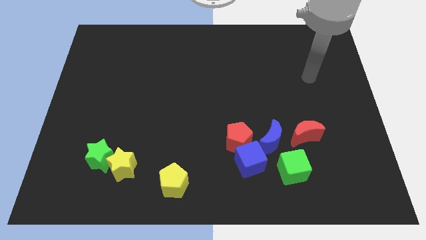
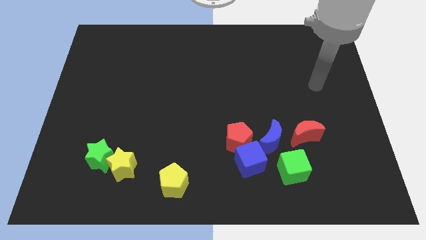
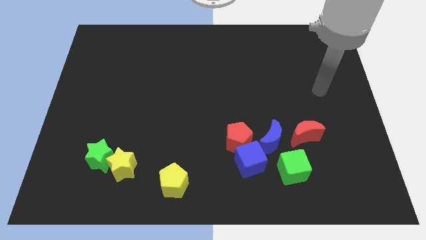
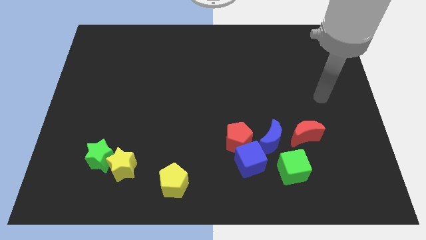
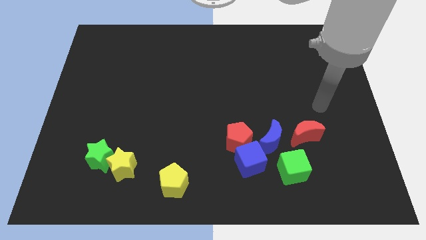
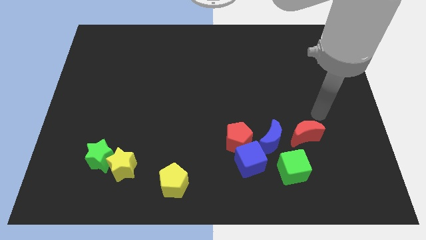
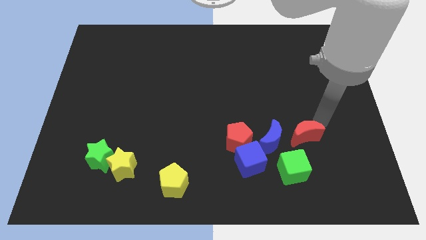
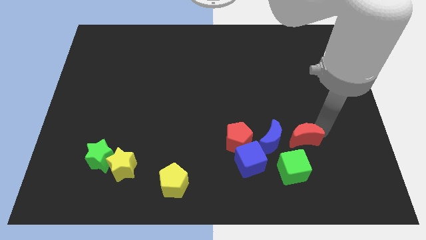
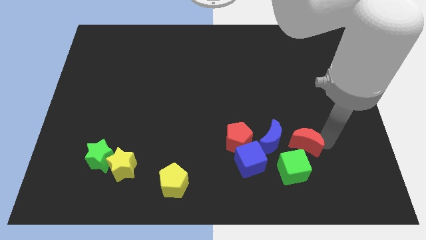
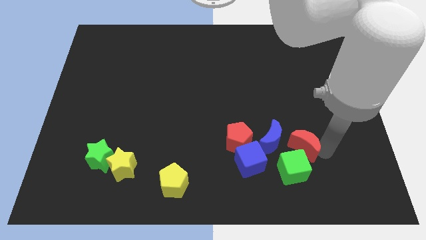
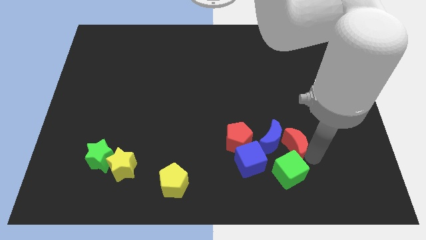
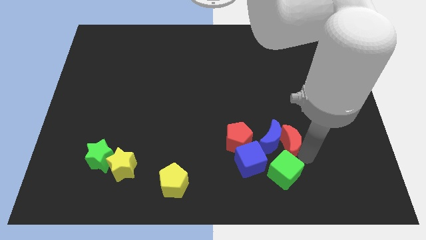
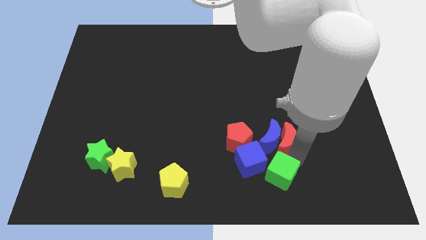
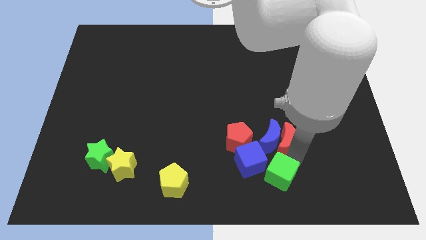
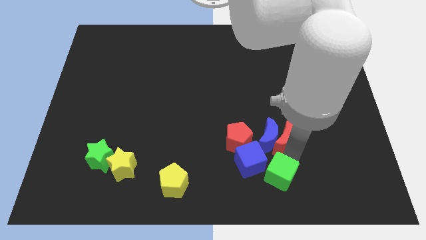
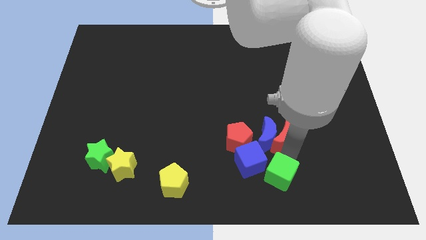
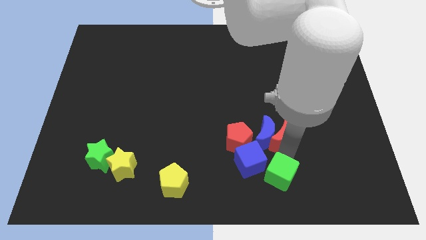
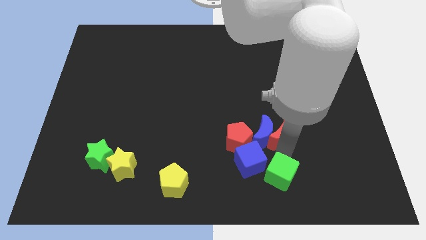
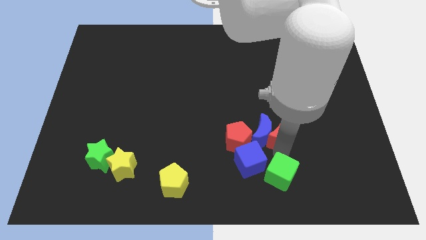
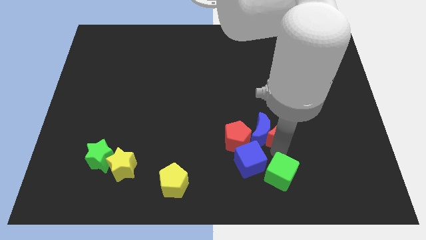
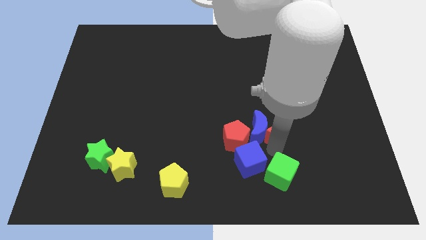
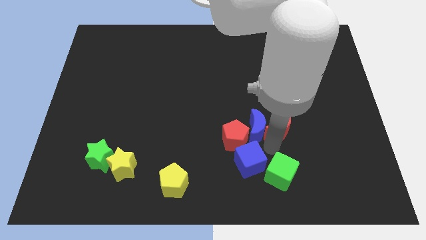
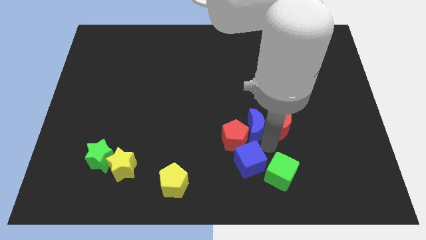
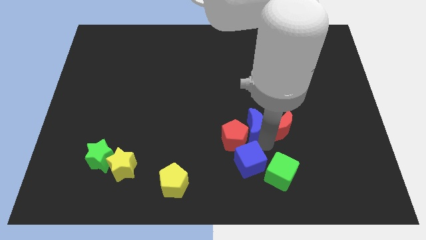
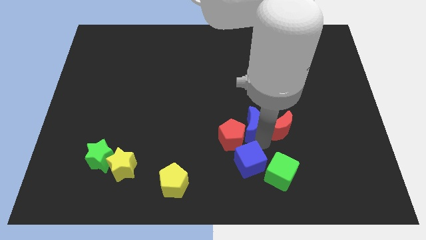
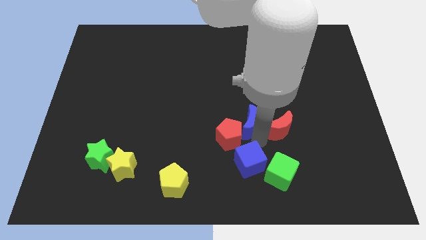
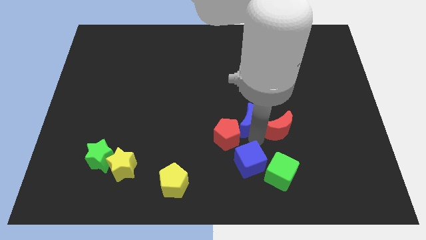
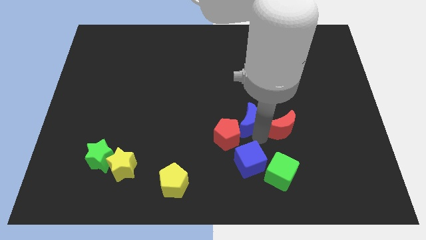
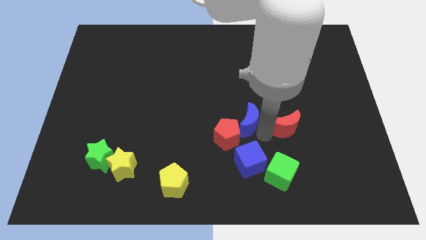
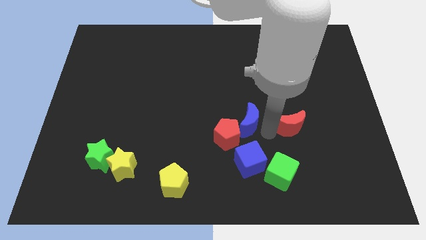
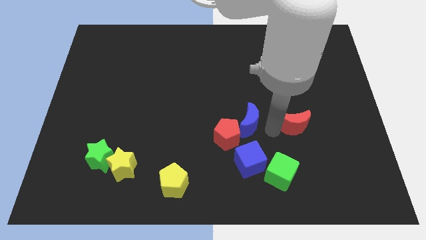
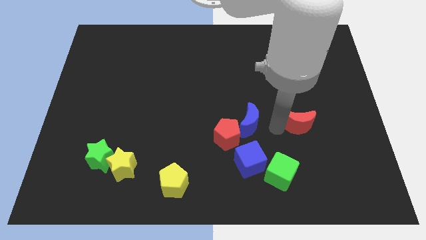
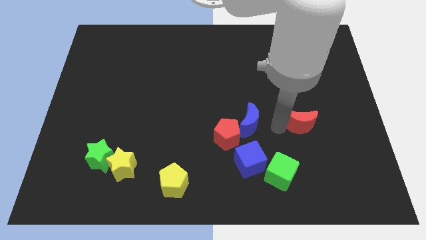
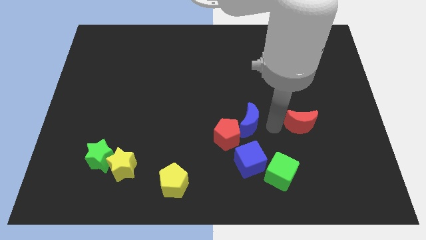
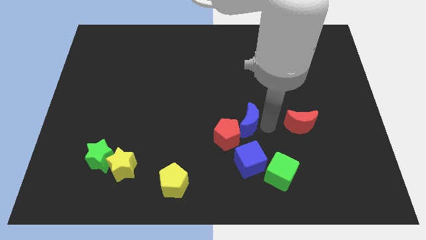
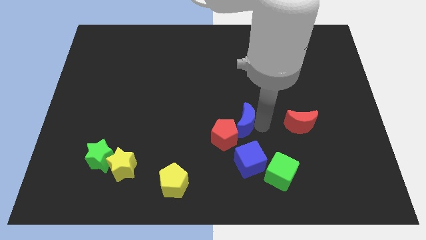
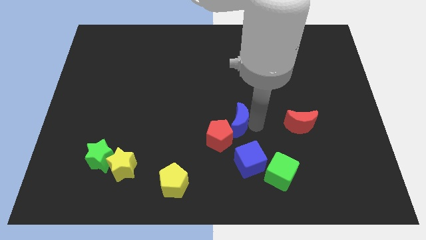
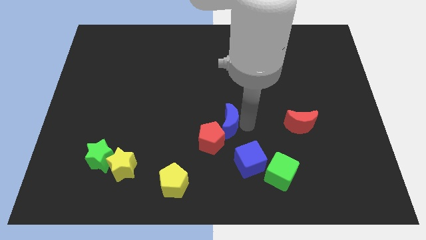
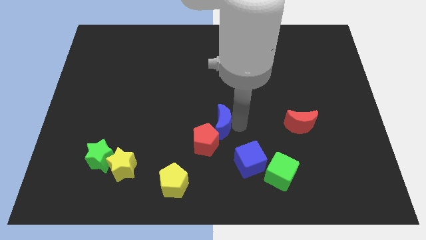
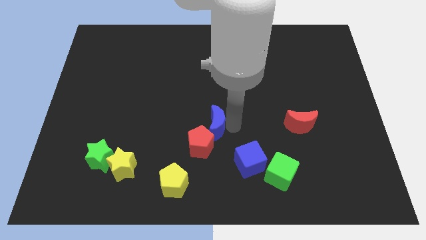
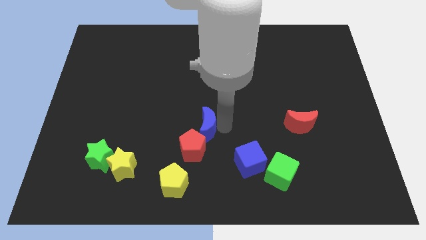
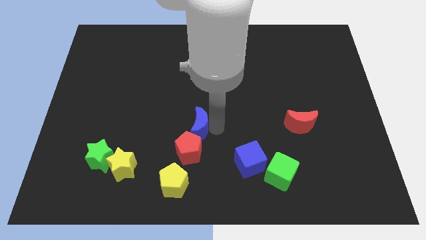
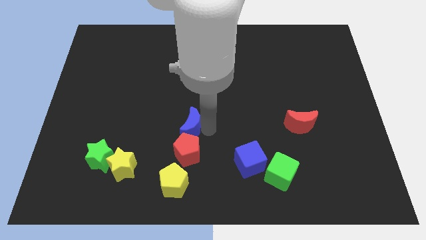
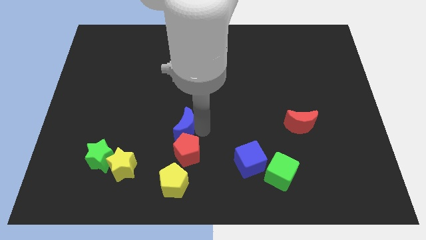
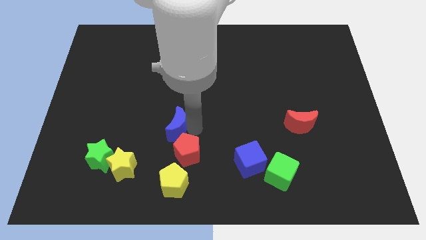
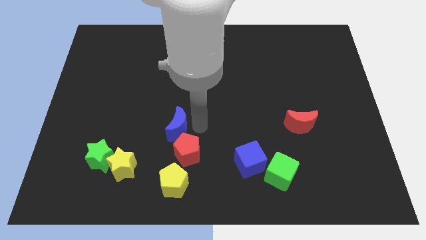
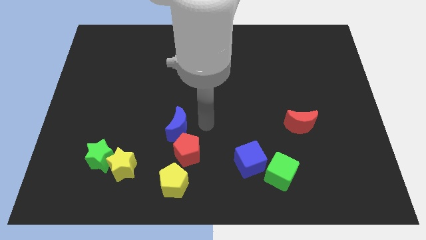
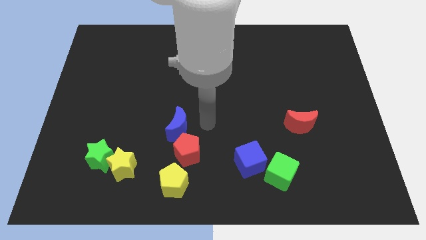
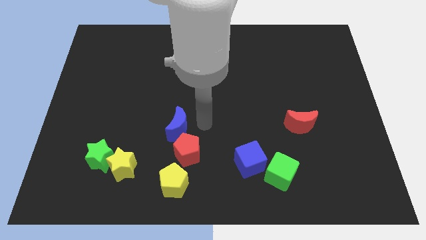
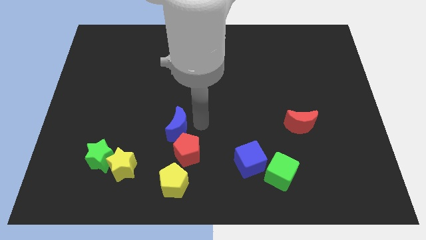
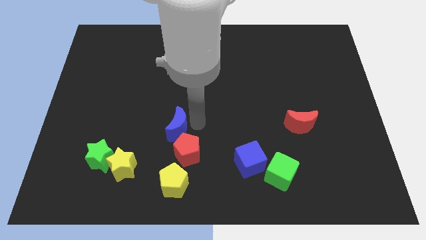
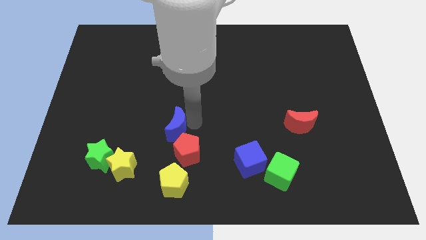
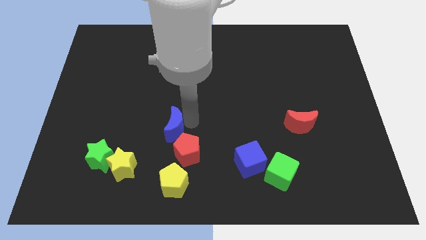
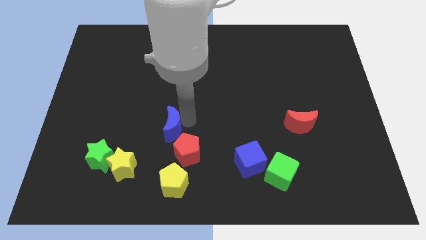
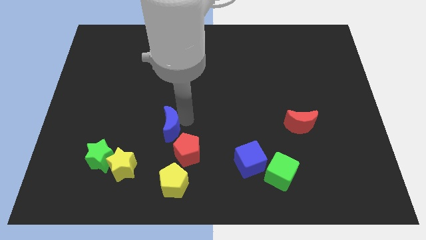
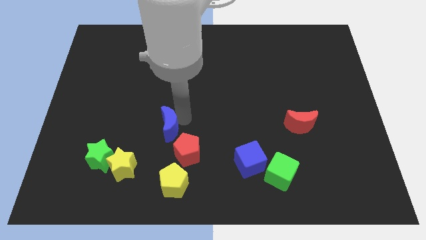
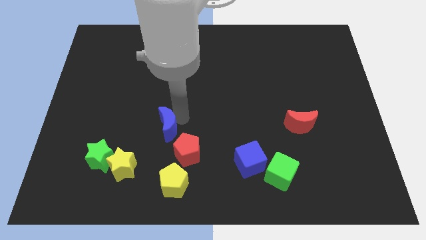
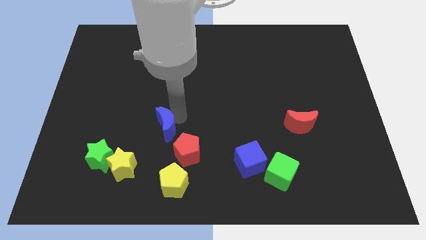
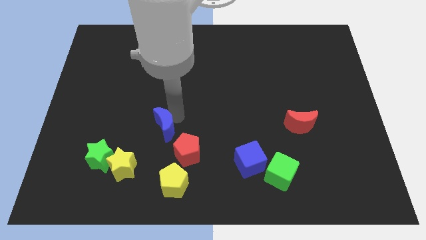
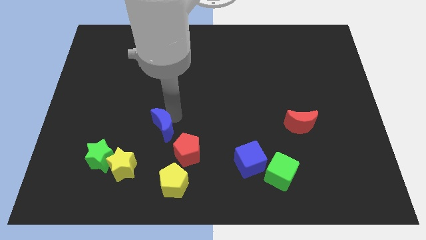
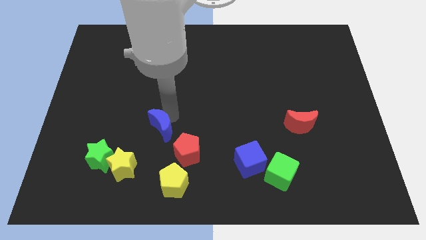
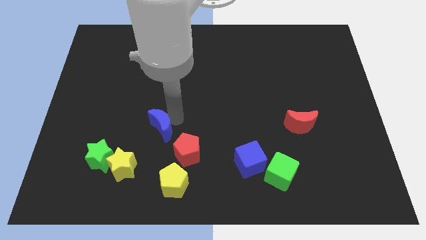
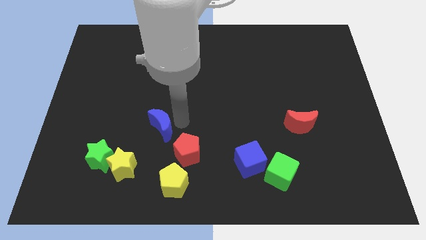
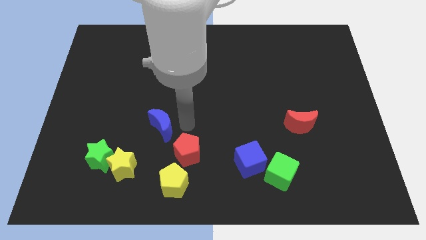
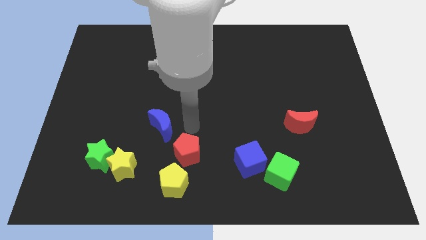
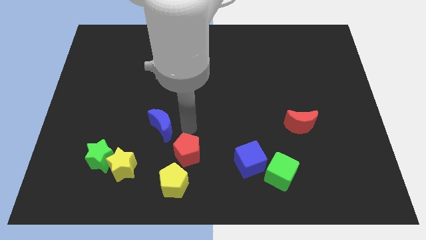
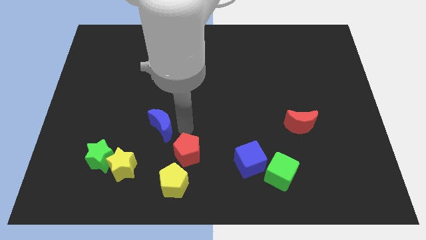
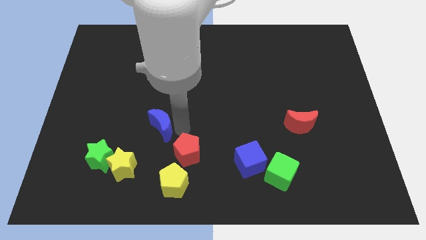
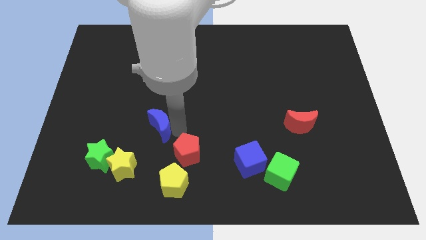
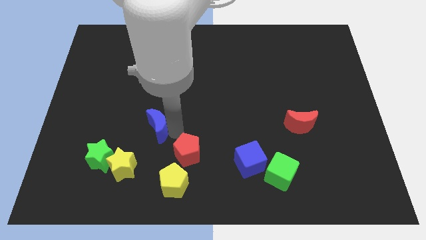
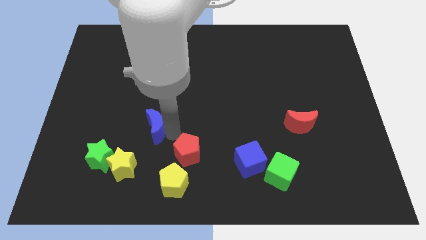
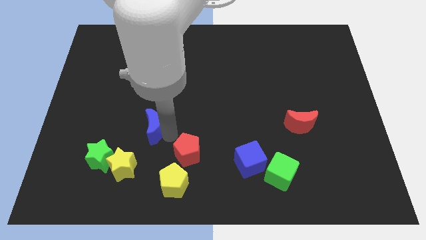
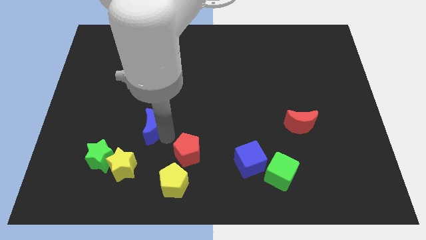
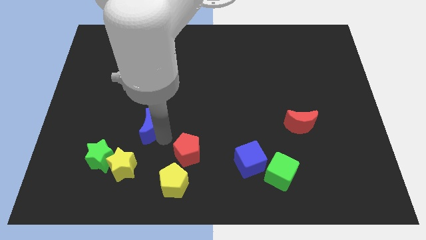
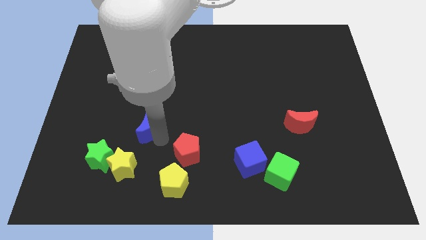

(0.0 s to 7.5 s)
move the blue moon to the top of the yellow star
